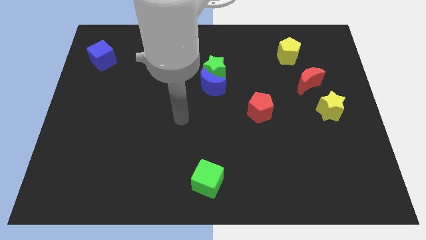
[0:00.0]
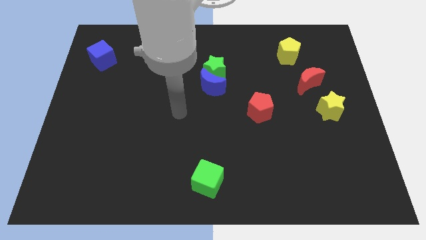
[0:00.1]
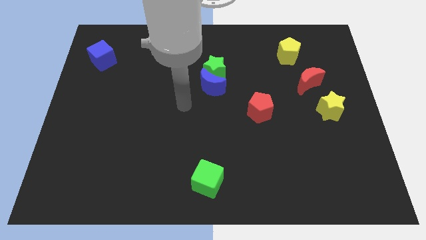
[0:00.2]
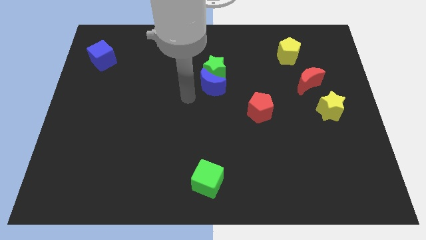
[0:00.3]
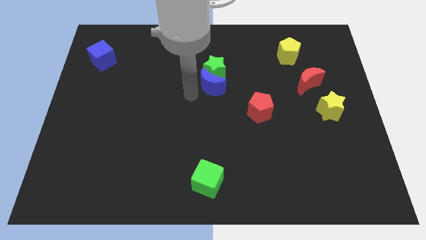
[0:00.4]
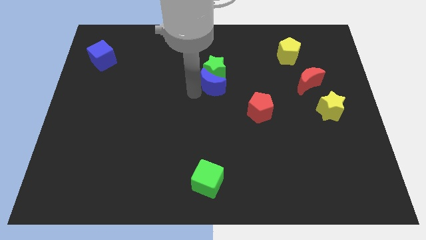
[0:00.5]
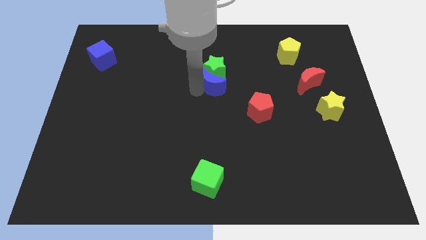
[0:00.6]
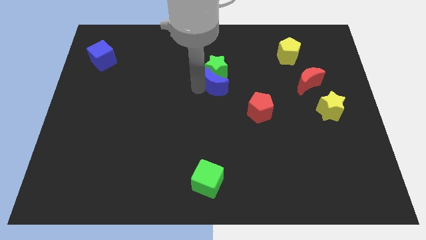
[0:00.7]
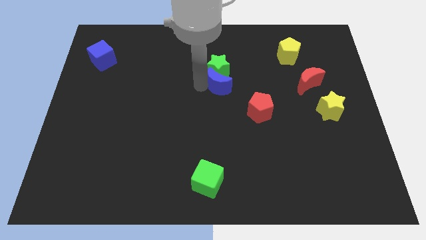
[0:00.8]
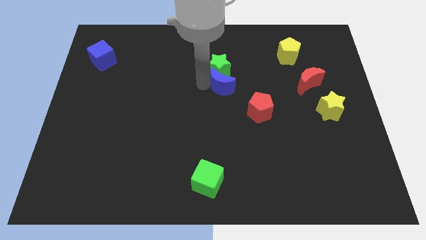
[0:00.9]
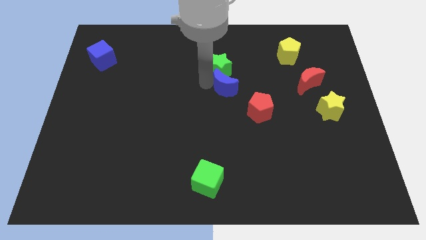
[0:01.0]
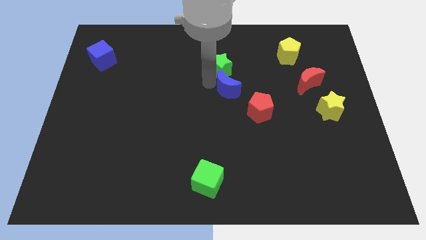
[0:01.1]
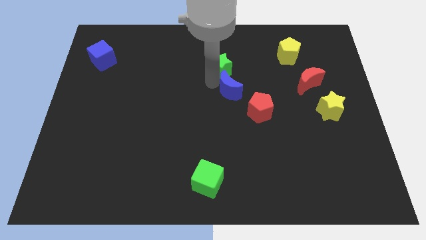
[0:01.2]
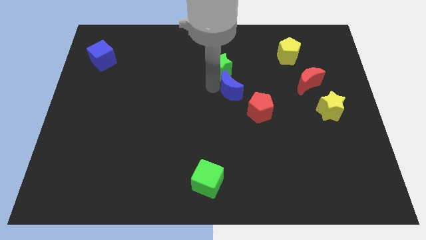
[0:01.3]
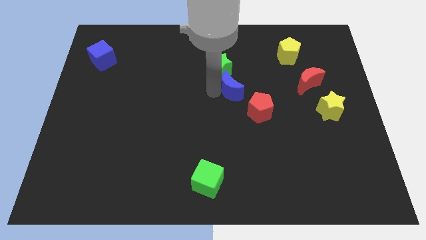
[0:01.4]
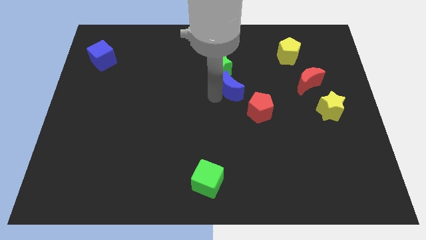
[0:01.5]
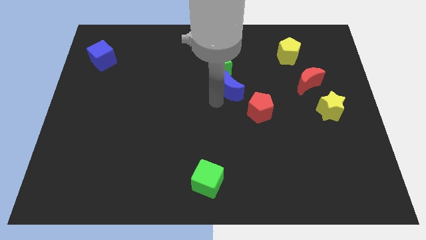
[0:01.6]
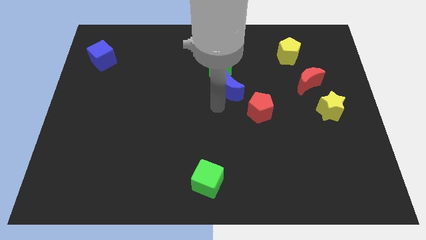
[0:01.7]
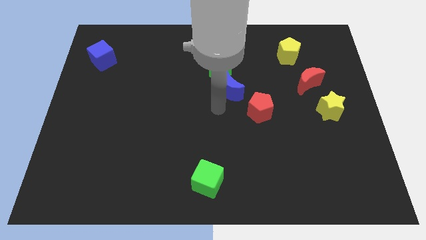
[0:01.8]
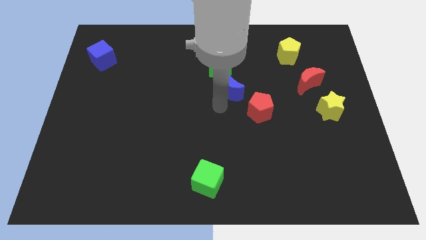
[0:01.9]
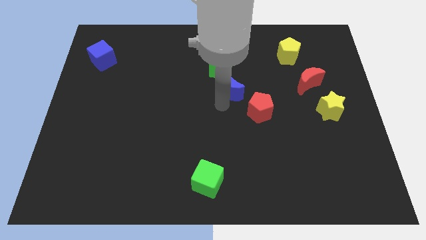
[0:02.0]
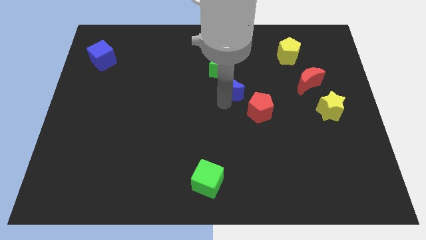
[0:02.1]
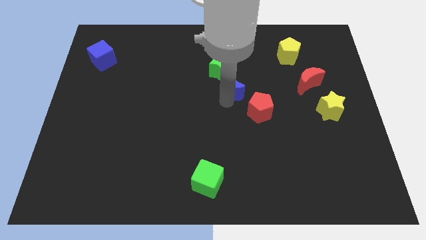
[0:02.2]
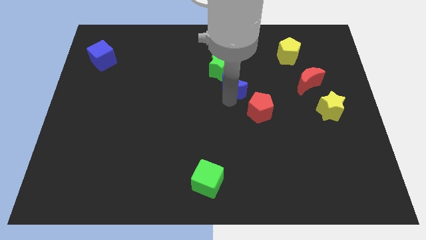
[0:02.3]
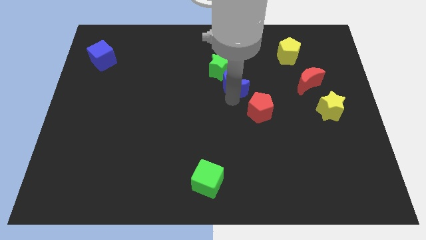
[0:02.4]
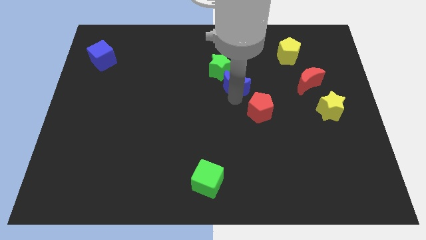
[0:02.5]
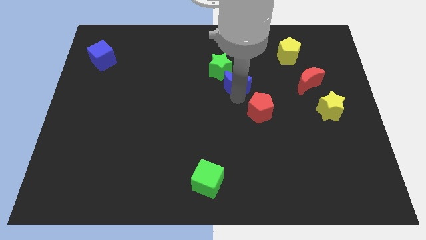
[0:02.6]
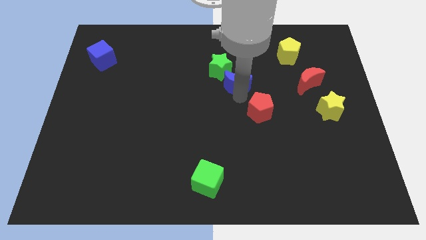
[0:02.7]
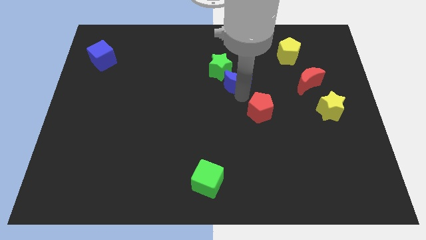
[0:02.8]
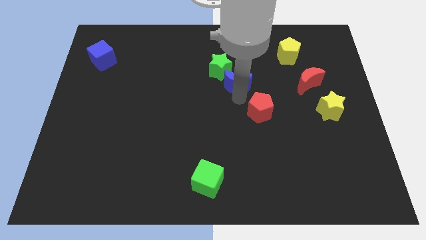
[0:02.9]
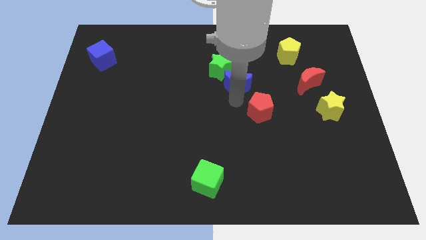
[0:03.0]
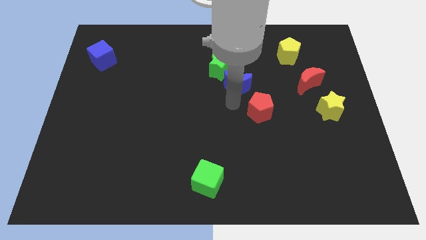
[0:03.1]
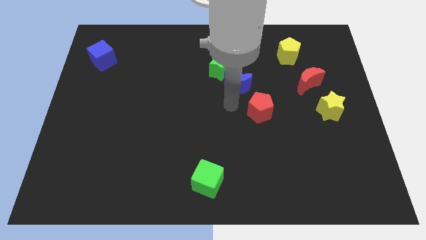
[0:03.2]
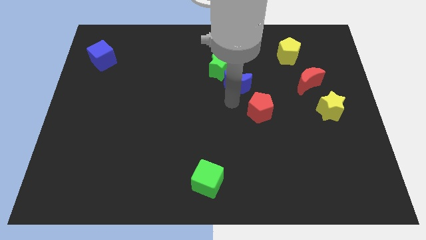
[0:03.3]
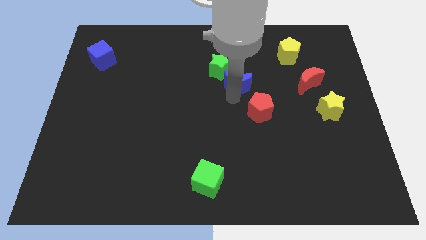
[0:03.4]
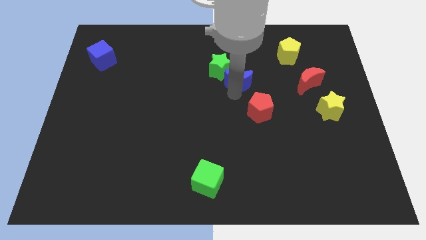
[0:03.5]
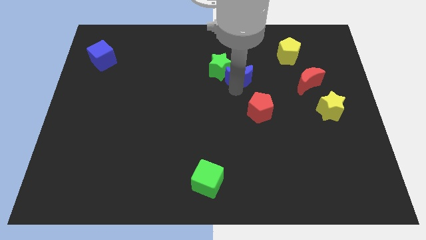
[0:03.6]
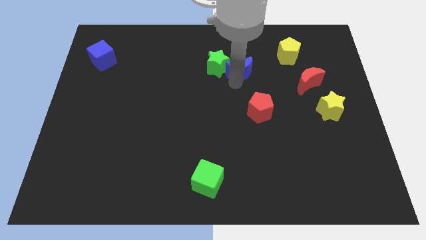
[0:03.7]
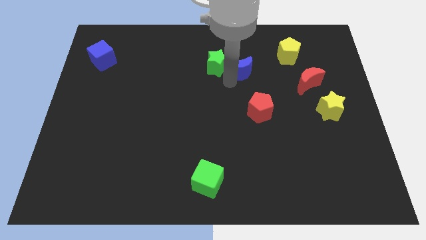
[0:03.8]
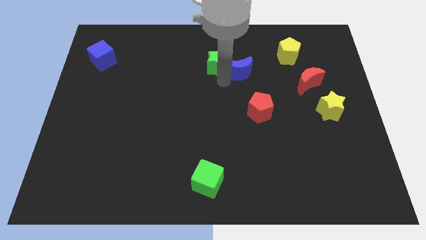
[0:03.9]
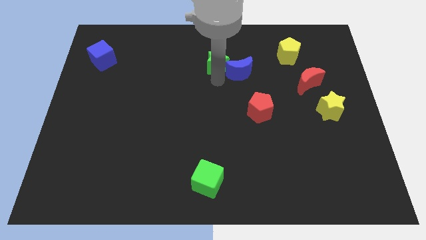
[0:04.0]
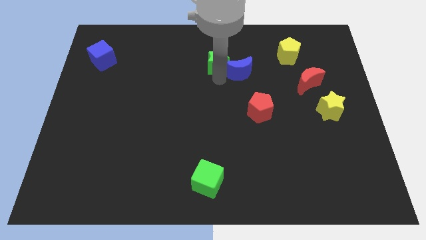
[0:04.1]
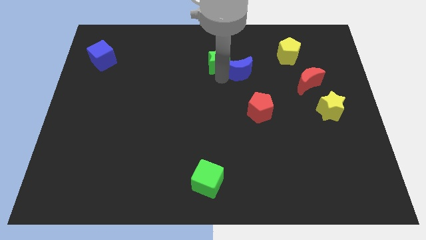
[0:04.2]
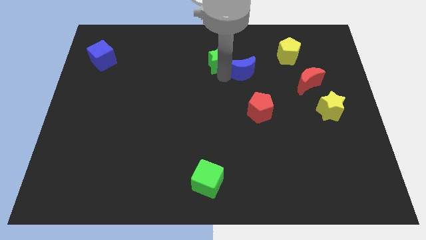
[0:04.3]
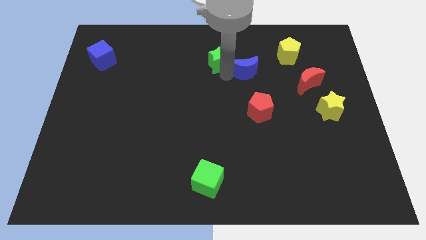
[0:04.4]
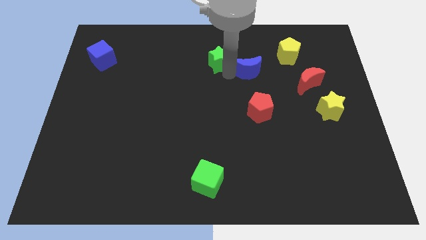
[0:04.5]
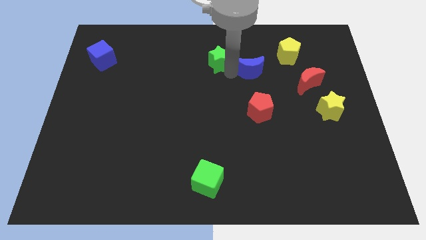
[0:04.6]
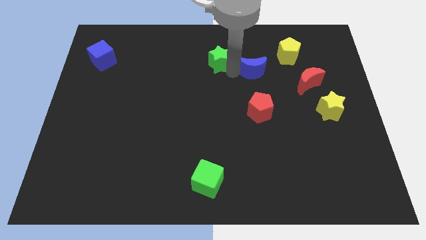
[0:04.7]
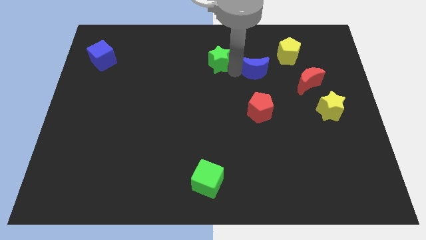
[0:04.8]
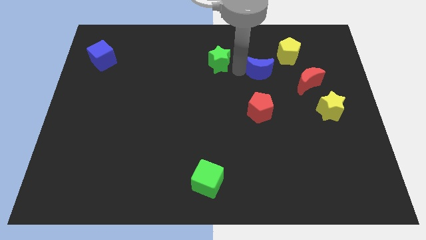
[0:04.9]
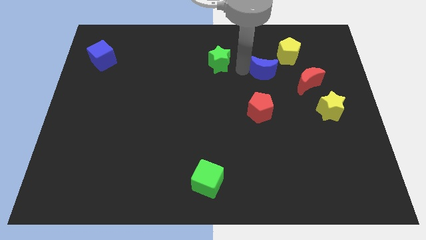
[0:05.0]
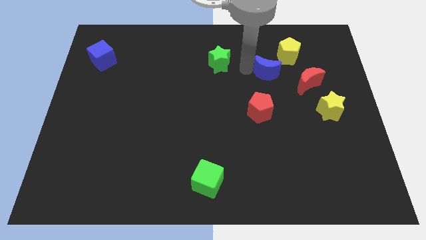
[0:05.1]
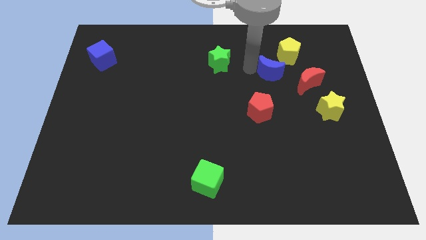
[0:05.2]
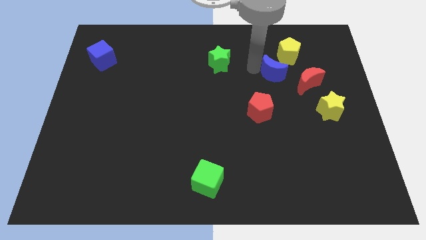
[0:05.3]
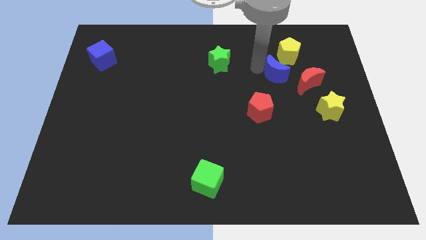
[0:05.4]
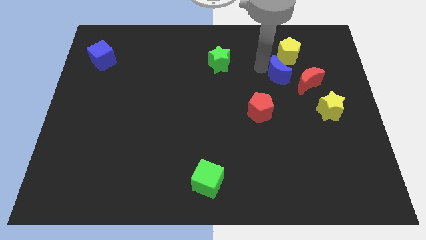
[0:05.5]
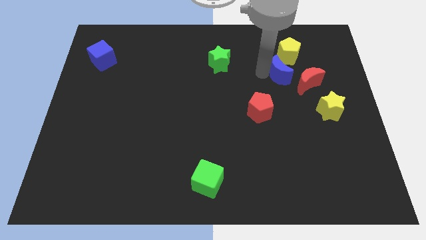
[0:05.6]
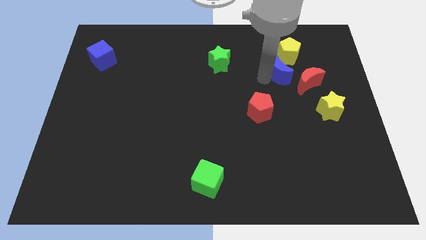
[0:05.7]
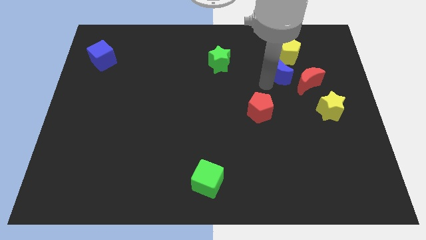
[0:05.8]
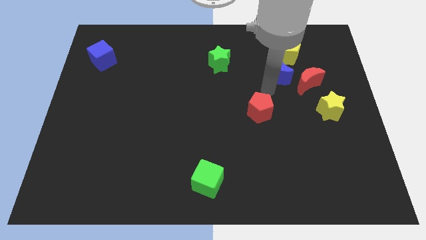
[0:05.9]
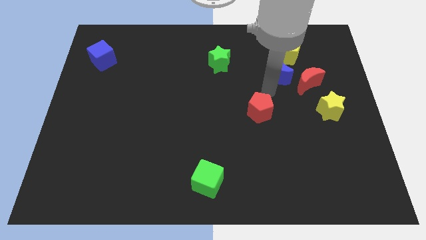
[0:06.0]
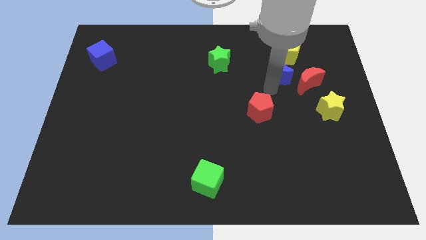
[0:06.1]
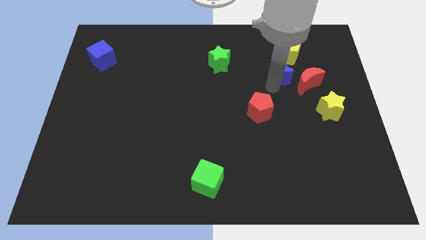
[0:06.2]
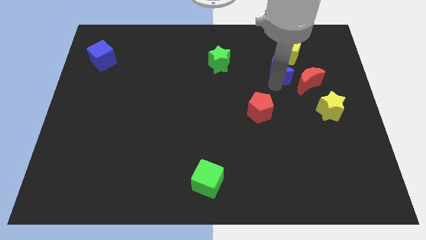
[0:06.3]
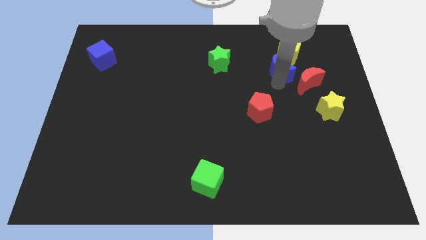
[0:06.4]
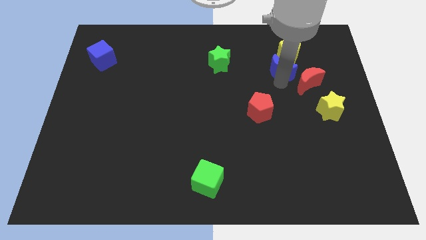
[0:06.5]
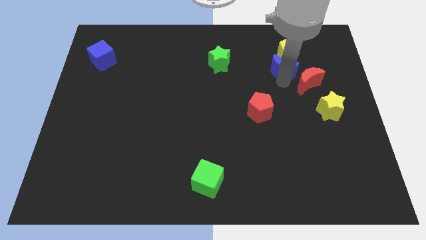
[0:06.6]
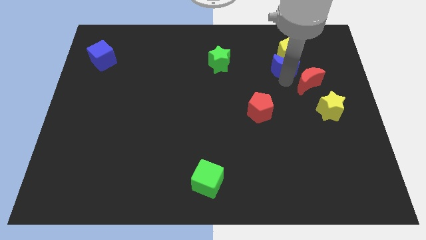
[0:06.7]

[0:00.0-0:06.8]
push the blue moon towards the yellow pentagon

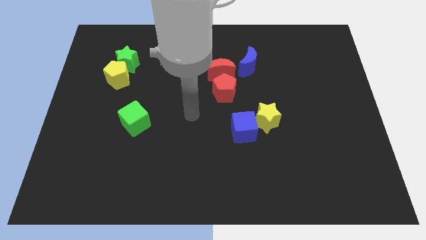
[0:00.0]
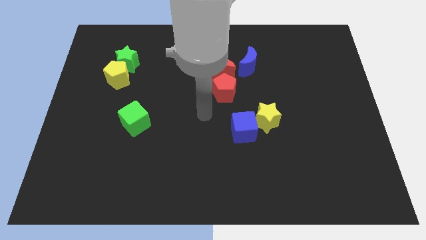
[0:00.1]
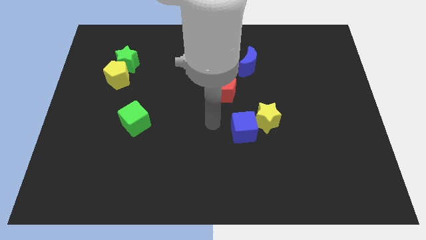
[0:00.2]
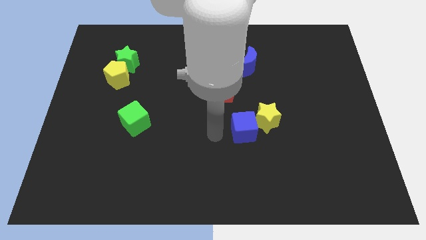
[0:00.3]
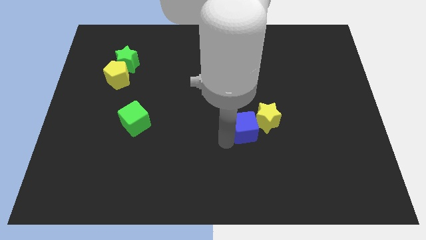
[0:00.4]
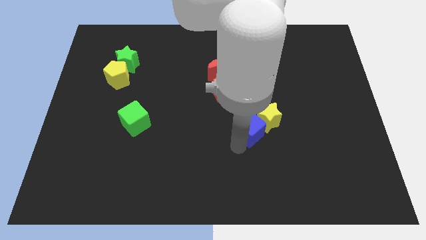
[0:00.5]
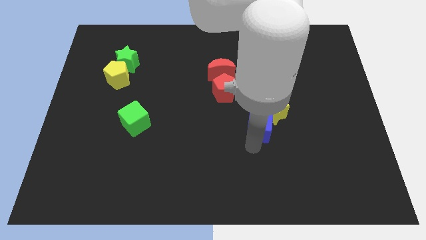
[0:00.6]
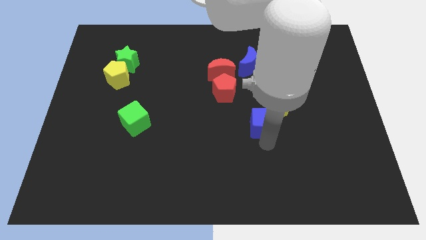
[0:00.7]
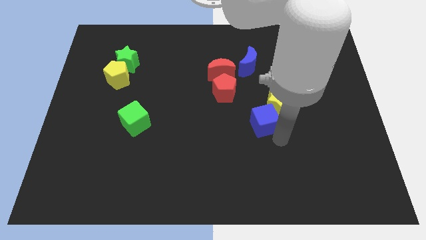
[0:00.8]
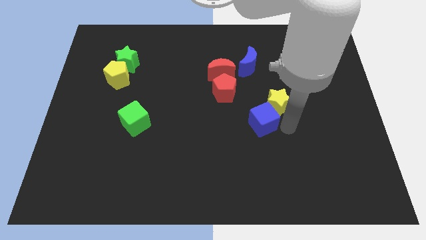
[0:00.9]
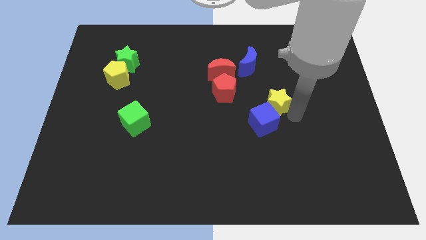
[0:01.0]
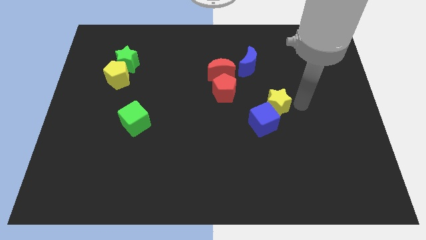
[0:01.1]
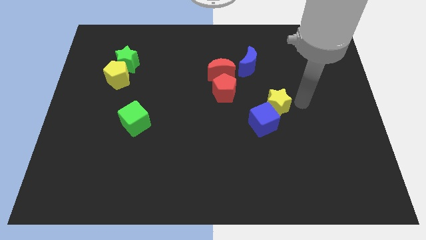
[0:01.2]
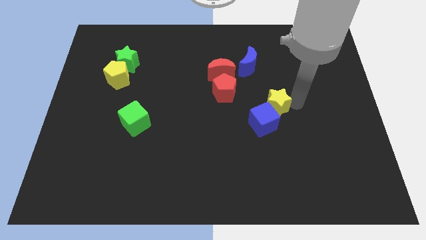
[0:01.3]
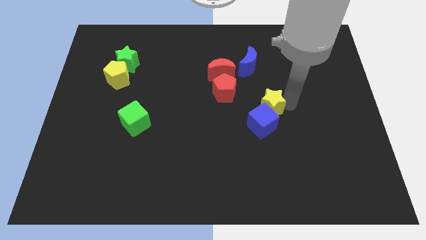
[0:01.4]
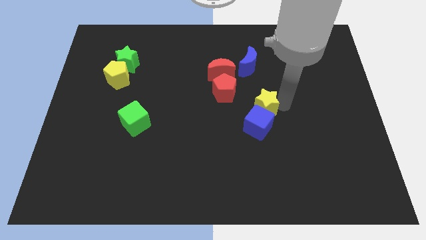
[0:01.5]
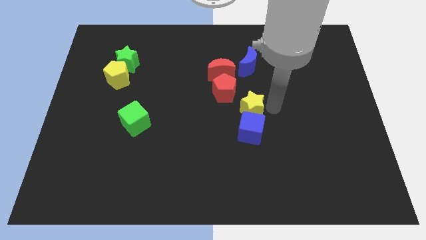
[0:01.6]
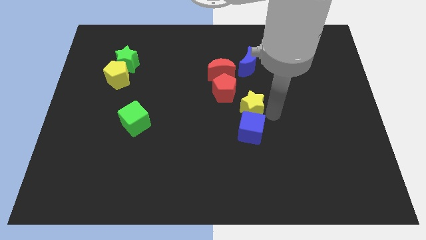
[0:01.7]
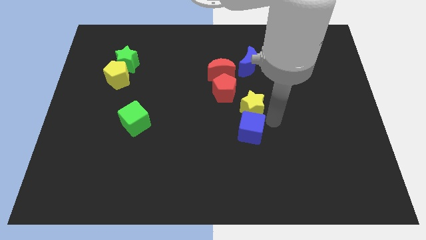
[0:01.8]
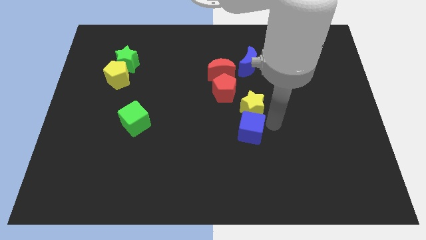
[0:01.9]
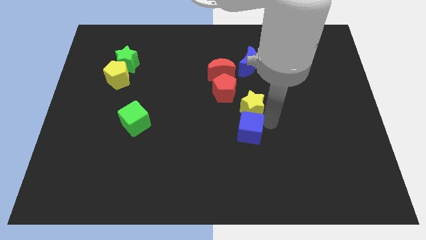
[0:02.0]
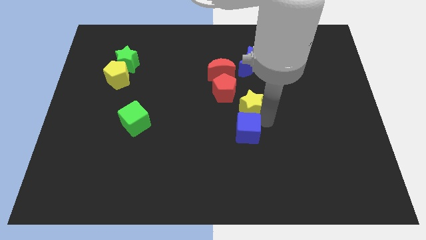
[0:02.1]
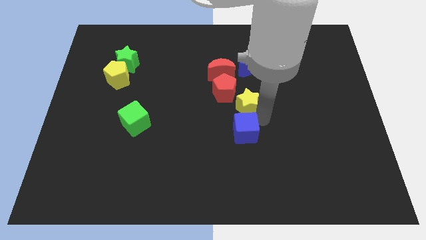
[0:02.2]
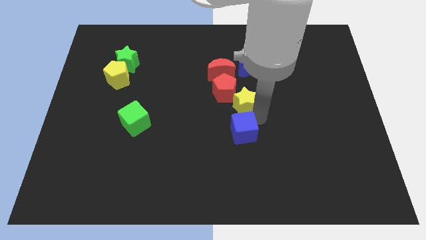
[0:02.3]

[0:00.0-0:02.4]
move the yellow star close to the red pentagon
